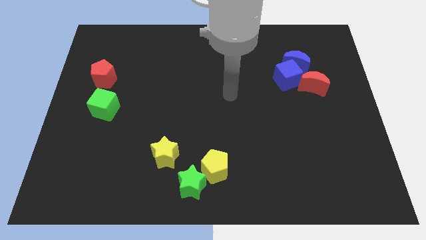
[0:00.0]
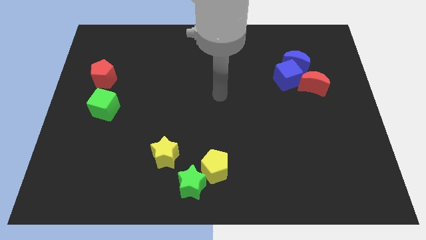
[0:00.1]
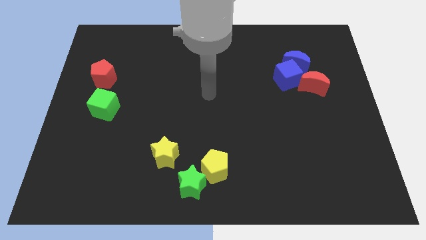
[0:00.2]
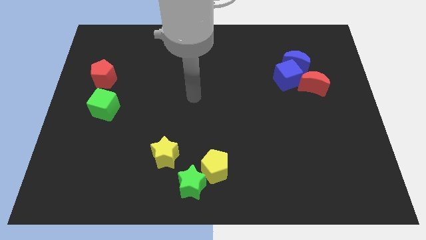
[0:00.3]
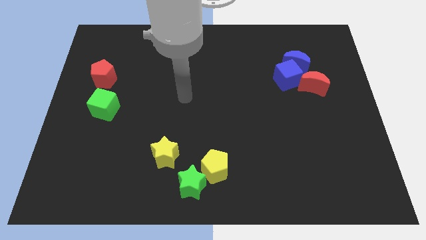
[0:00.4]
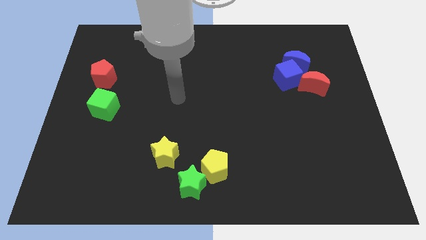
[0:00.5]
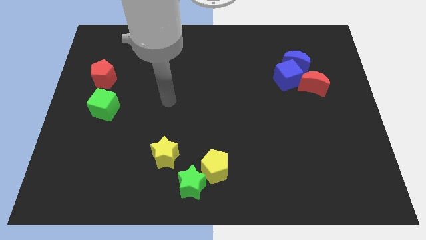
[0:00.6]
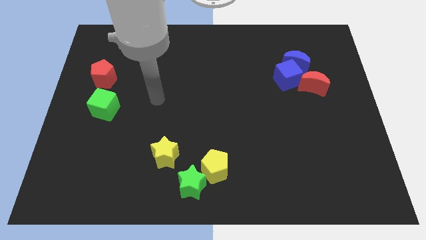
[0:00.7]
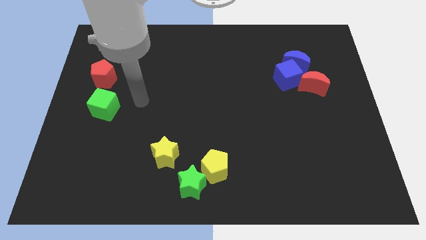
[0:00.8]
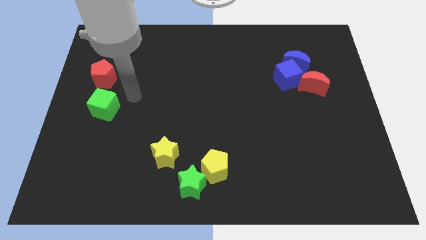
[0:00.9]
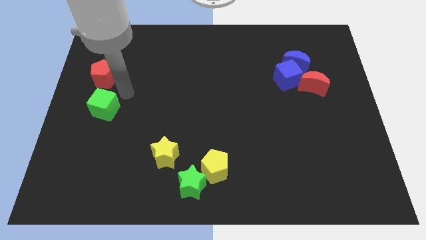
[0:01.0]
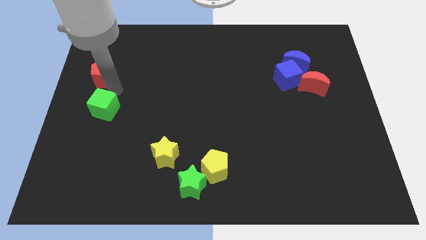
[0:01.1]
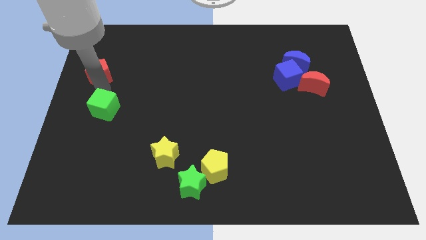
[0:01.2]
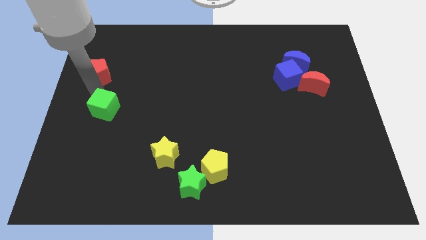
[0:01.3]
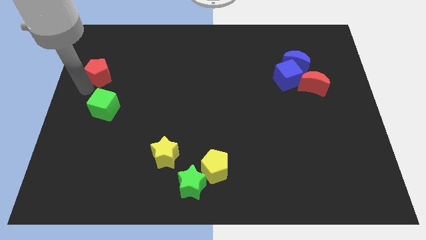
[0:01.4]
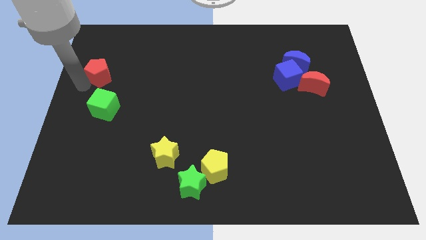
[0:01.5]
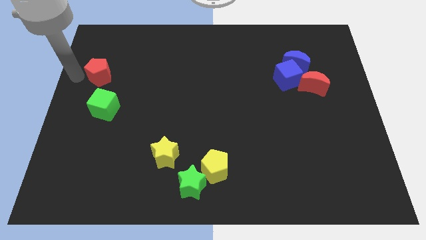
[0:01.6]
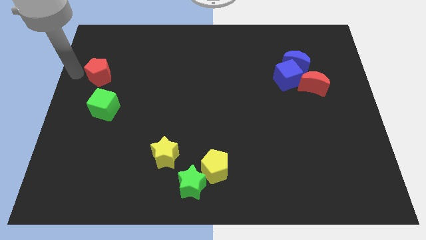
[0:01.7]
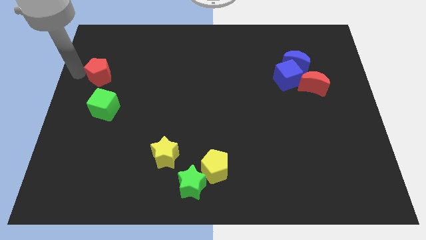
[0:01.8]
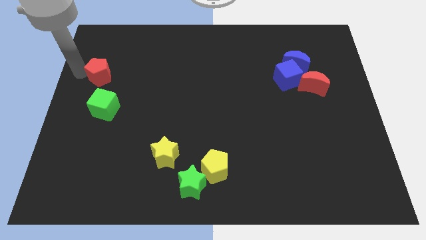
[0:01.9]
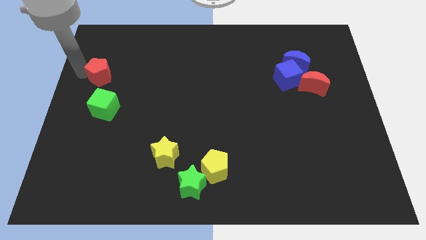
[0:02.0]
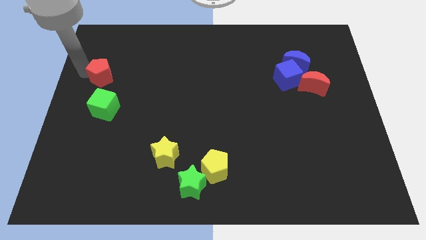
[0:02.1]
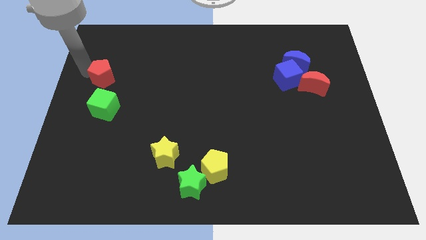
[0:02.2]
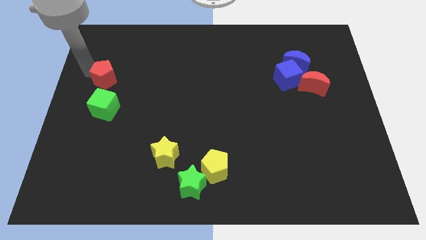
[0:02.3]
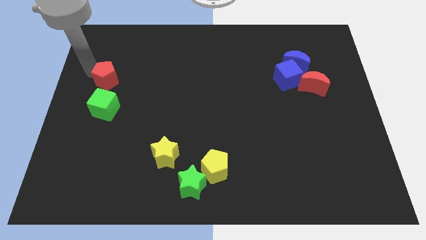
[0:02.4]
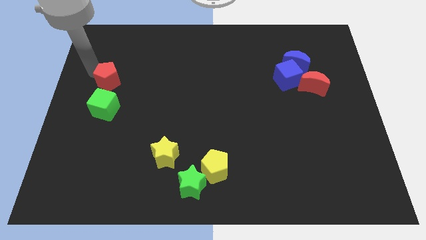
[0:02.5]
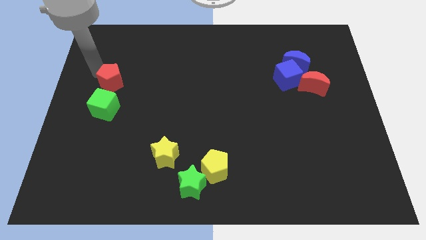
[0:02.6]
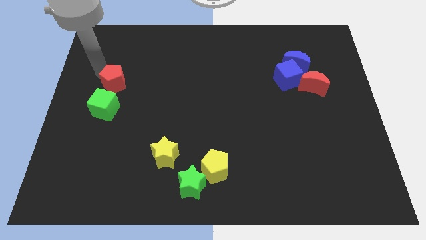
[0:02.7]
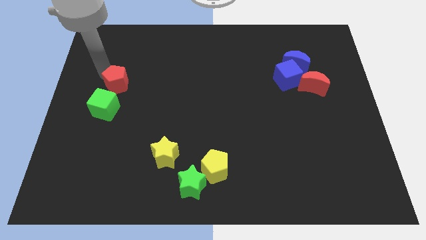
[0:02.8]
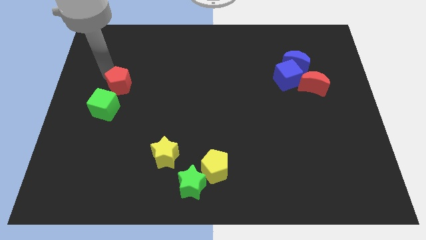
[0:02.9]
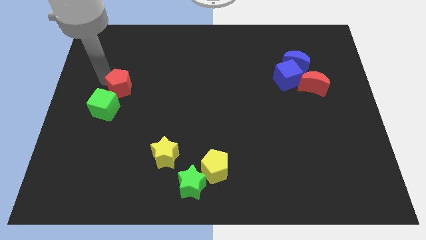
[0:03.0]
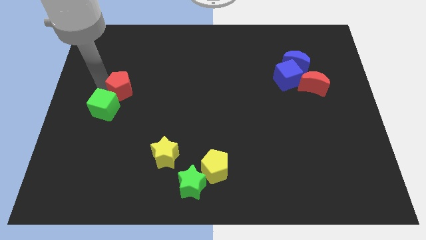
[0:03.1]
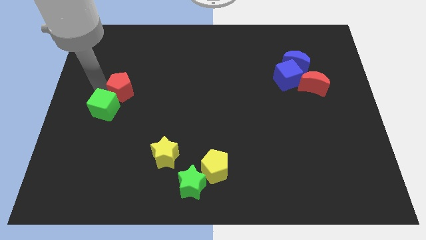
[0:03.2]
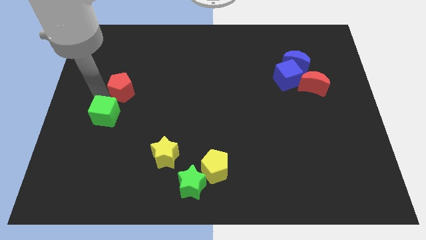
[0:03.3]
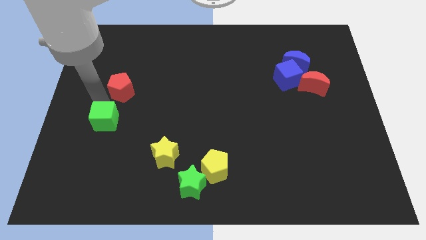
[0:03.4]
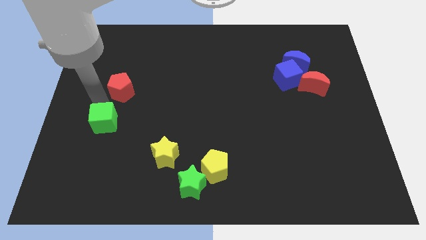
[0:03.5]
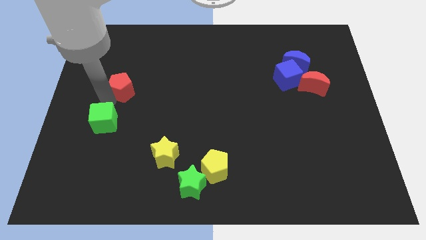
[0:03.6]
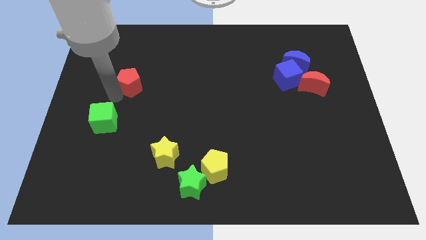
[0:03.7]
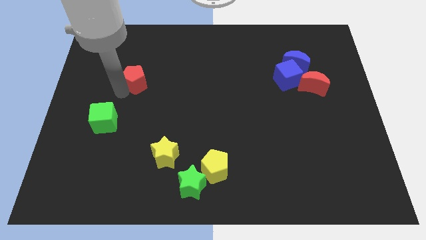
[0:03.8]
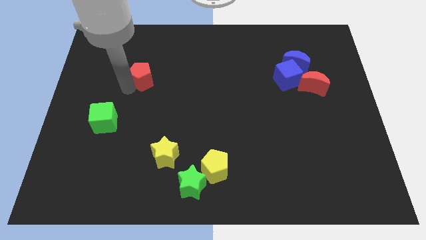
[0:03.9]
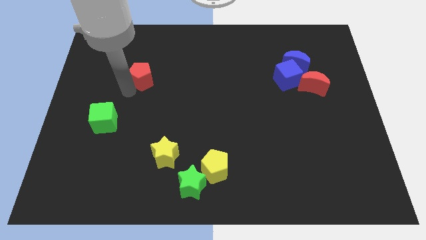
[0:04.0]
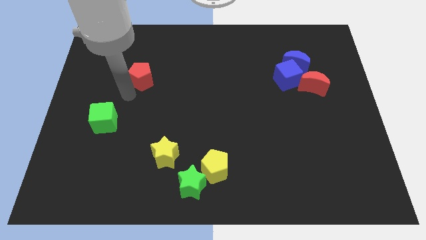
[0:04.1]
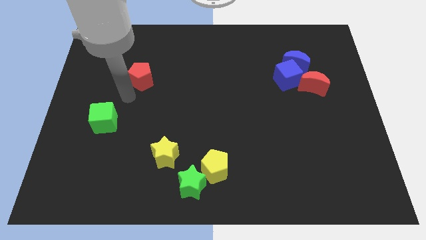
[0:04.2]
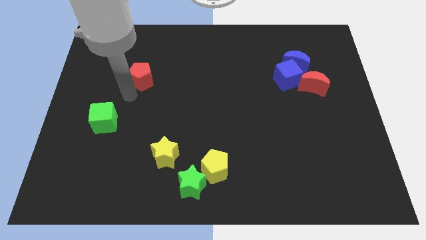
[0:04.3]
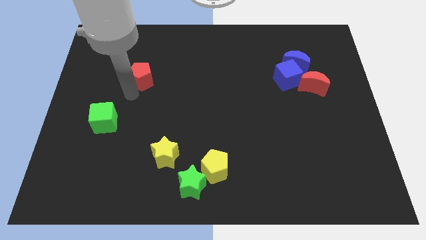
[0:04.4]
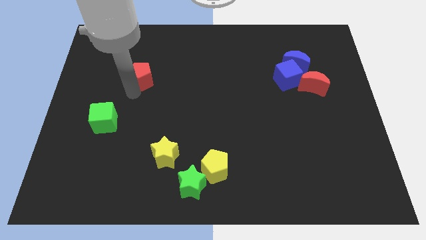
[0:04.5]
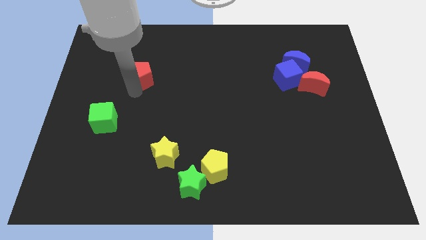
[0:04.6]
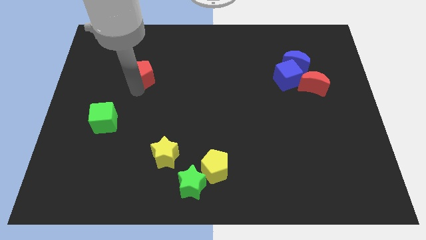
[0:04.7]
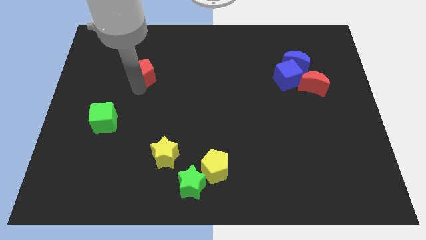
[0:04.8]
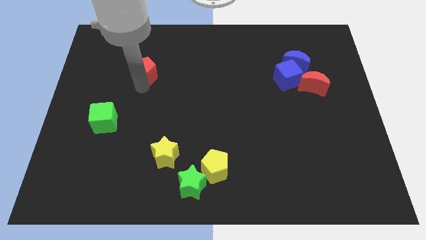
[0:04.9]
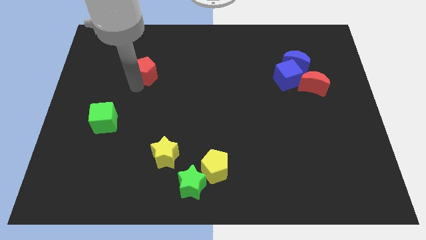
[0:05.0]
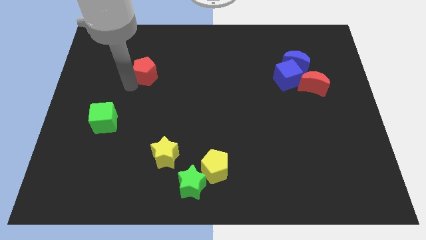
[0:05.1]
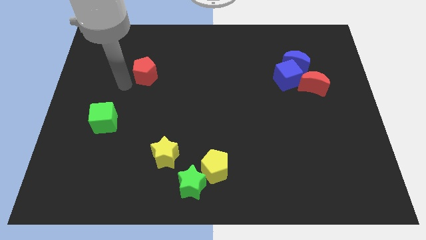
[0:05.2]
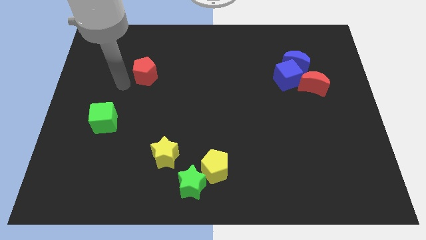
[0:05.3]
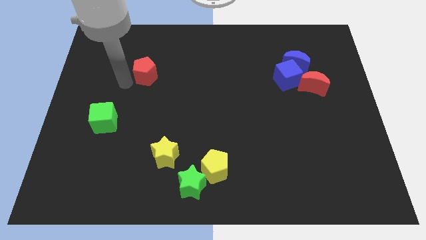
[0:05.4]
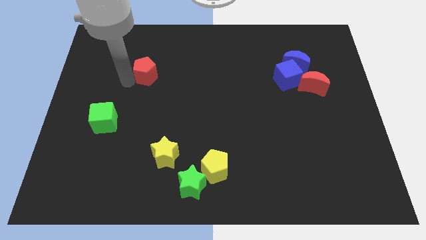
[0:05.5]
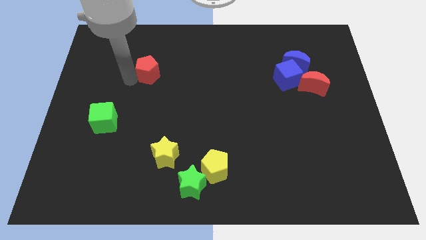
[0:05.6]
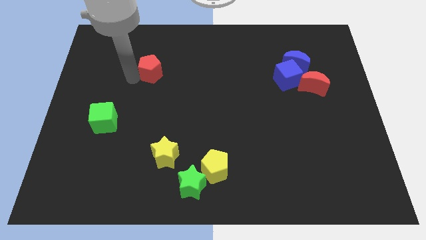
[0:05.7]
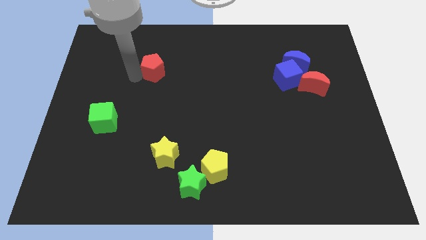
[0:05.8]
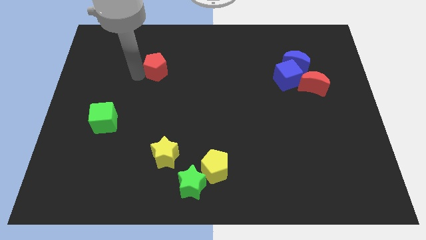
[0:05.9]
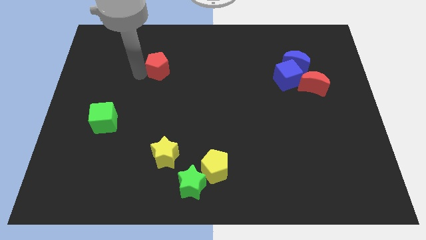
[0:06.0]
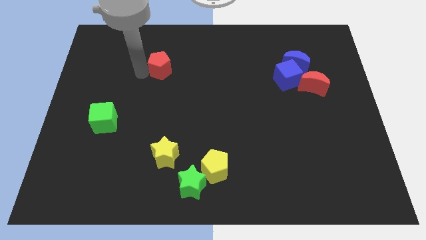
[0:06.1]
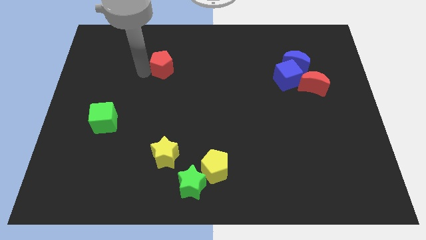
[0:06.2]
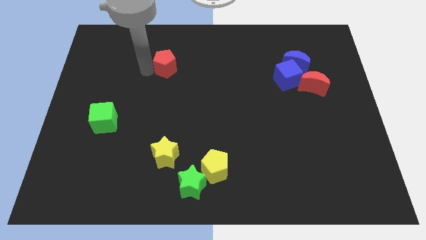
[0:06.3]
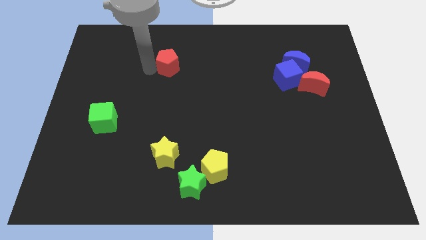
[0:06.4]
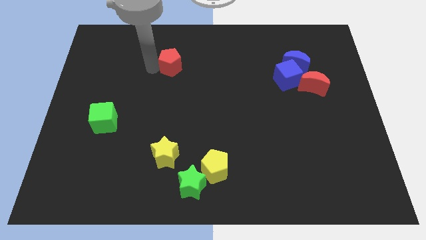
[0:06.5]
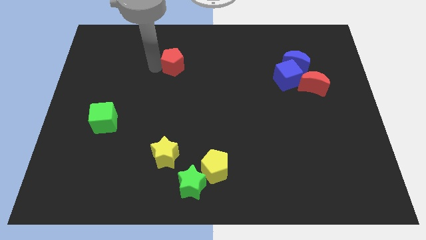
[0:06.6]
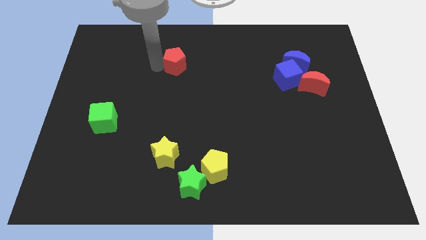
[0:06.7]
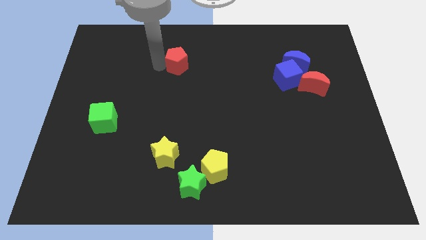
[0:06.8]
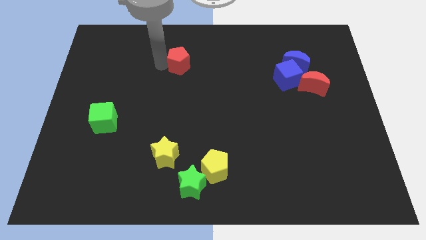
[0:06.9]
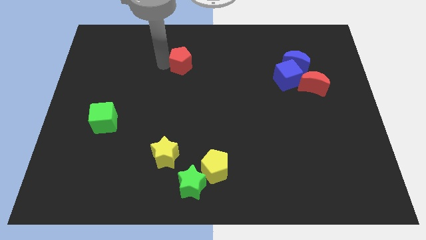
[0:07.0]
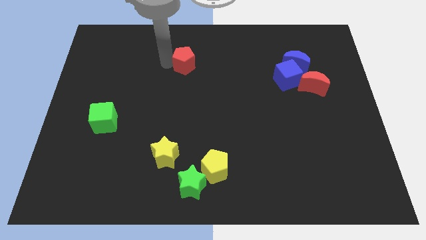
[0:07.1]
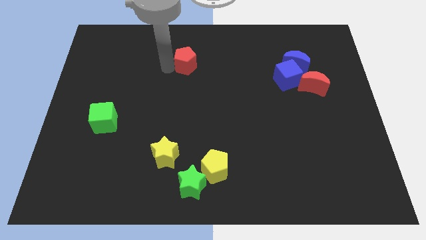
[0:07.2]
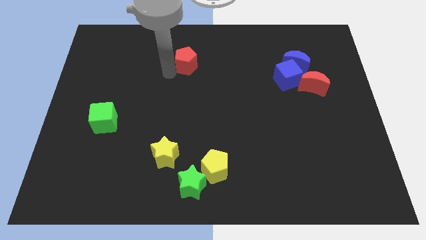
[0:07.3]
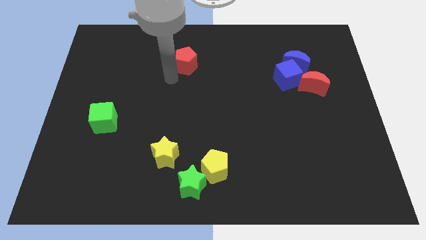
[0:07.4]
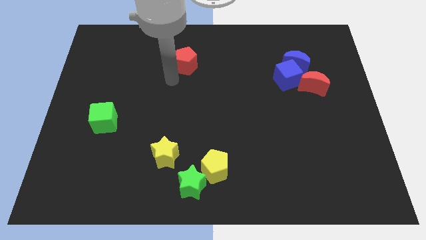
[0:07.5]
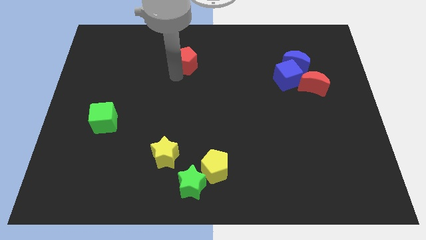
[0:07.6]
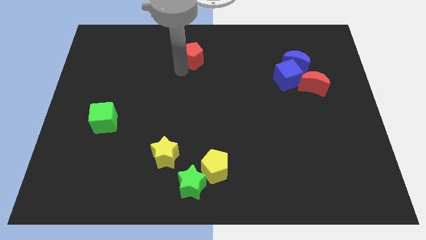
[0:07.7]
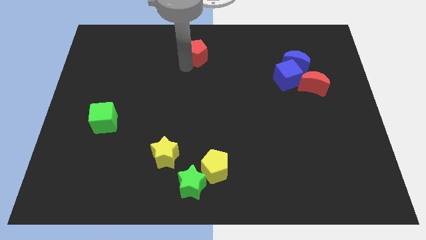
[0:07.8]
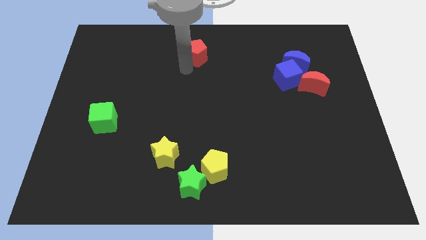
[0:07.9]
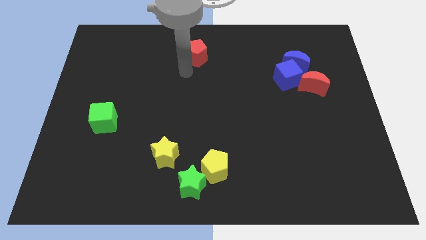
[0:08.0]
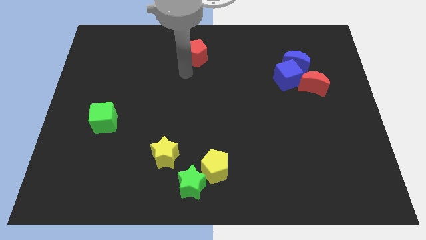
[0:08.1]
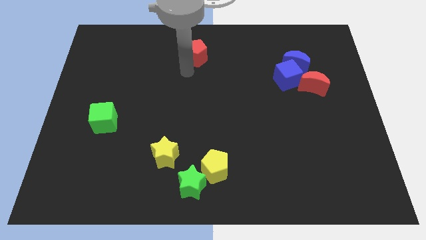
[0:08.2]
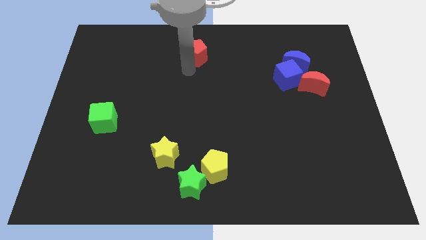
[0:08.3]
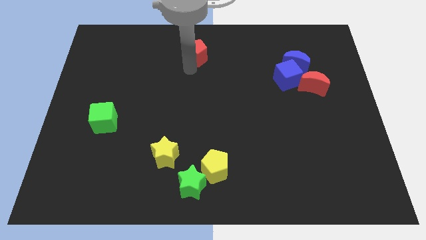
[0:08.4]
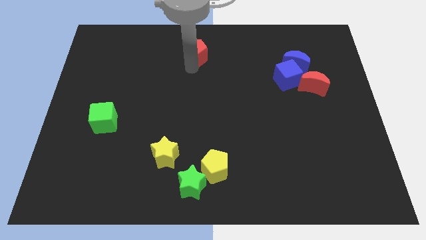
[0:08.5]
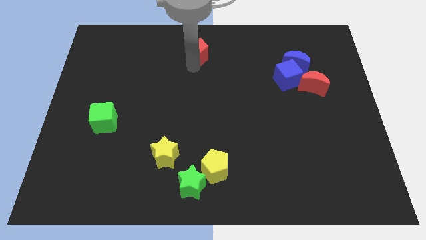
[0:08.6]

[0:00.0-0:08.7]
put the red pentagon to the top
